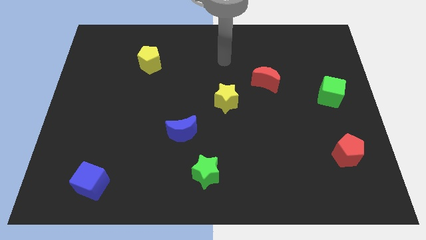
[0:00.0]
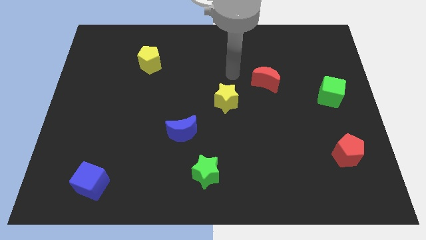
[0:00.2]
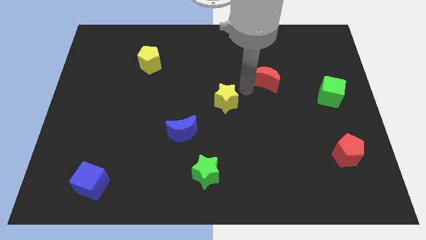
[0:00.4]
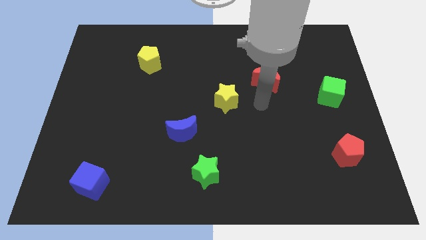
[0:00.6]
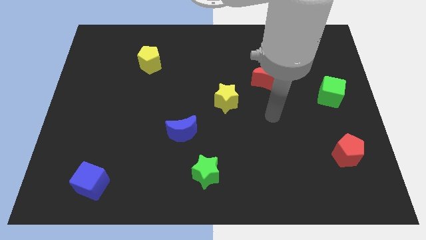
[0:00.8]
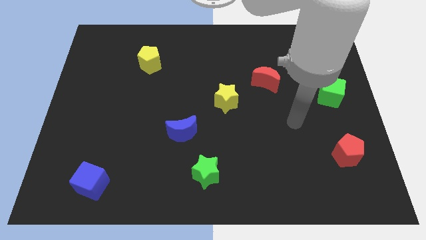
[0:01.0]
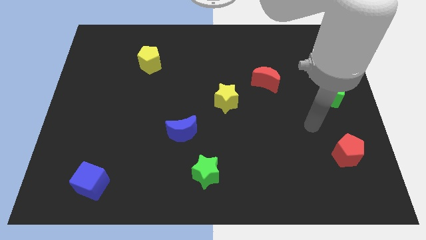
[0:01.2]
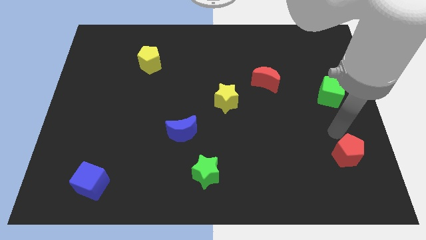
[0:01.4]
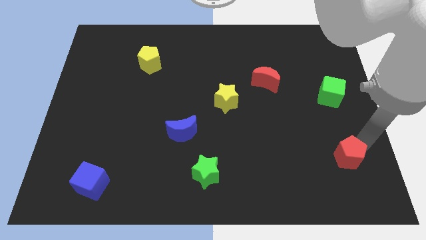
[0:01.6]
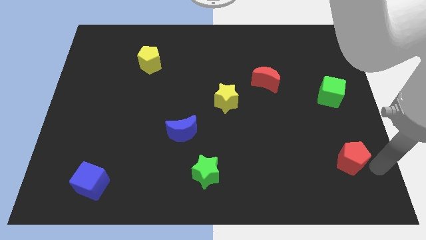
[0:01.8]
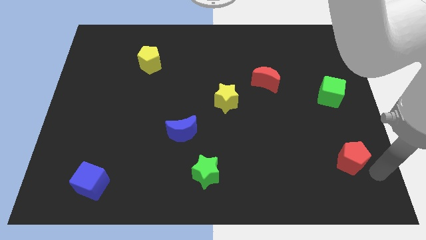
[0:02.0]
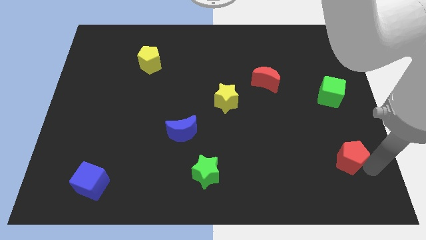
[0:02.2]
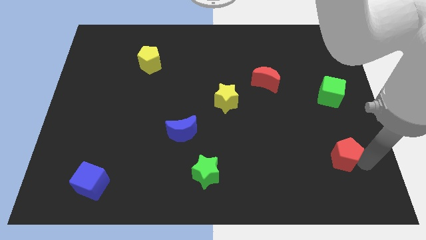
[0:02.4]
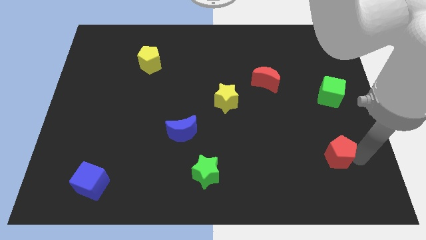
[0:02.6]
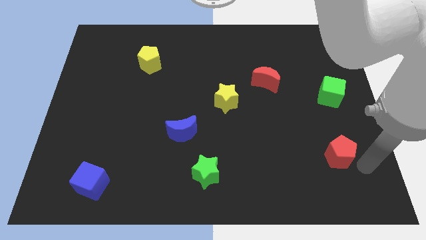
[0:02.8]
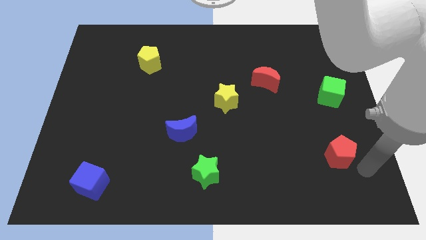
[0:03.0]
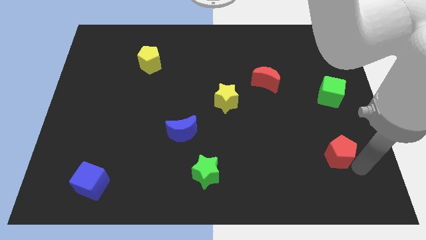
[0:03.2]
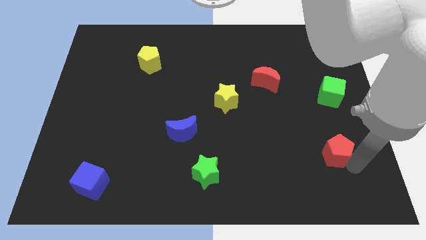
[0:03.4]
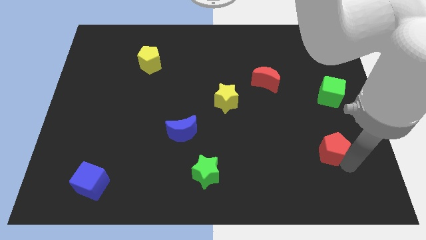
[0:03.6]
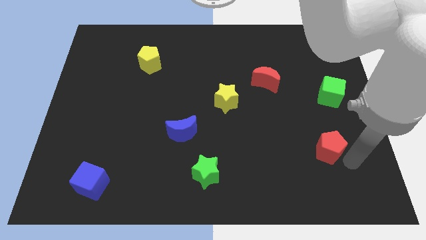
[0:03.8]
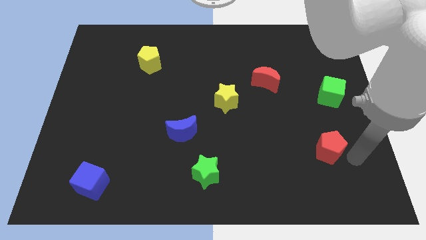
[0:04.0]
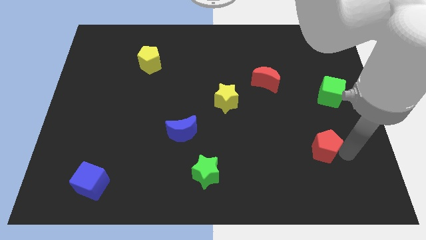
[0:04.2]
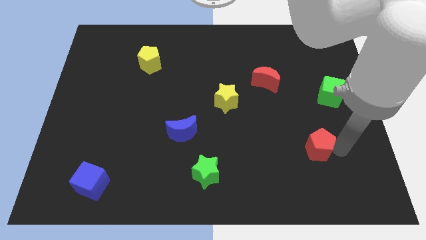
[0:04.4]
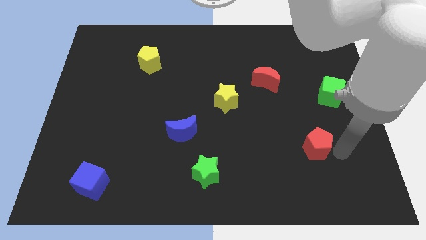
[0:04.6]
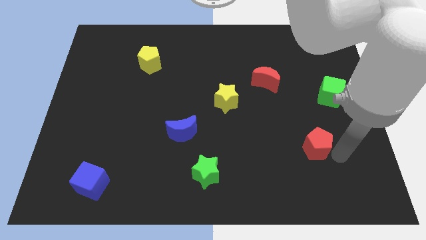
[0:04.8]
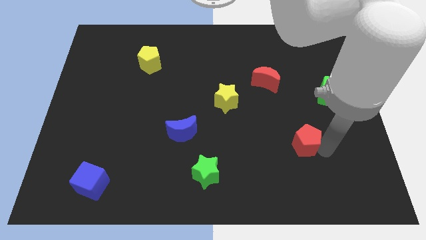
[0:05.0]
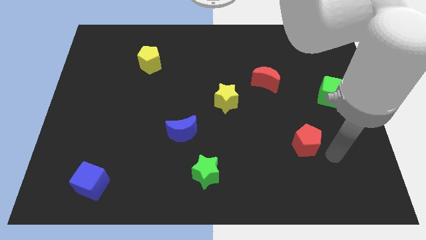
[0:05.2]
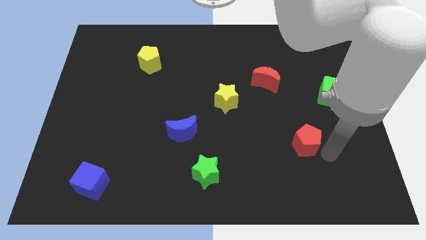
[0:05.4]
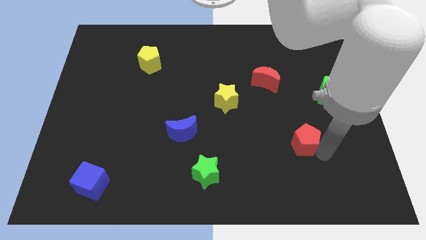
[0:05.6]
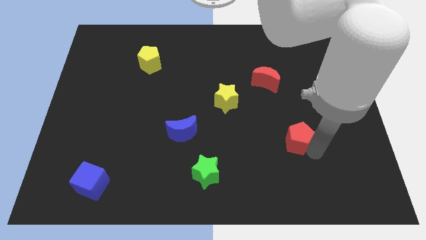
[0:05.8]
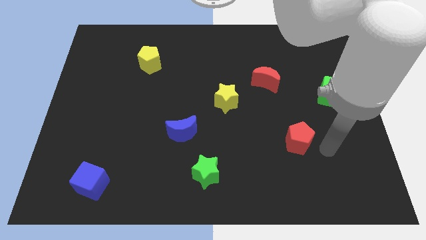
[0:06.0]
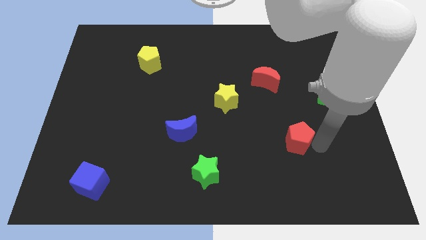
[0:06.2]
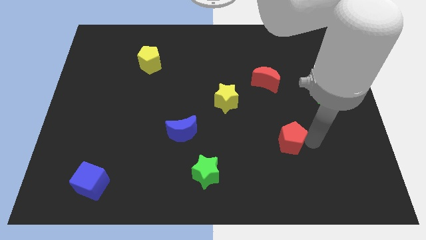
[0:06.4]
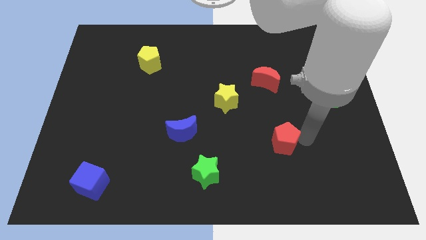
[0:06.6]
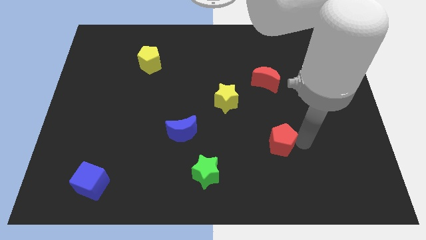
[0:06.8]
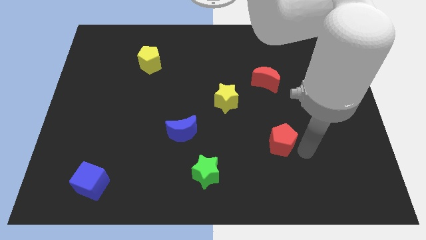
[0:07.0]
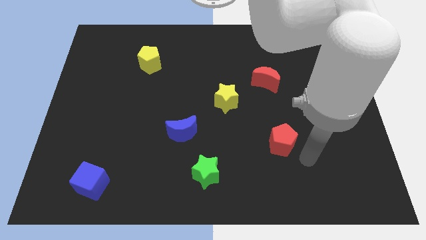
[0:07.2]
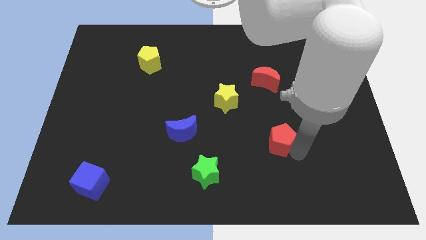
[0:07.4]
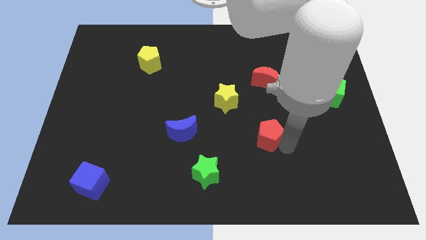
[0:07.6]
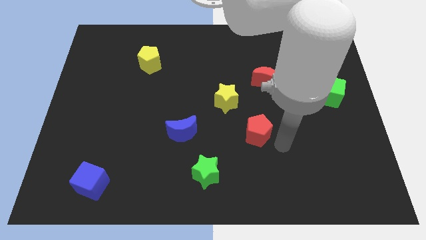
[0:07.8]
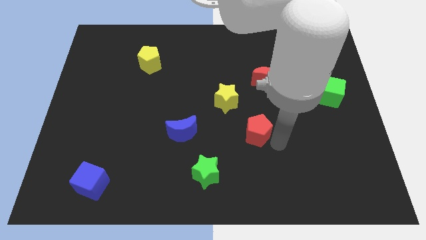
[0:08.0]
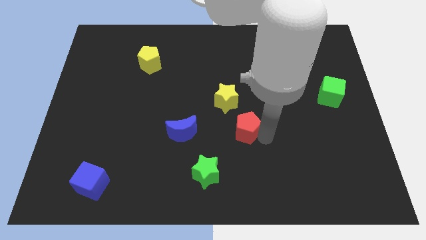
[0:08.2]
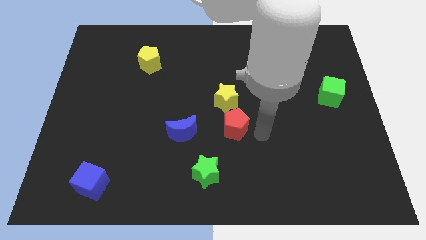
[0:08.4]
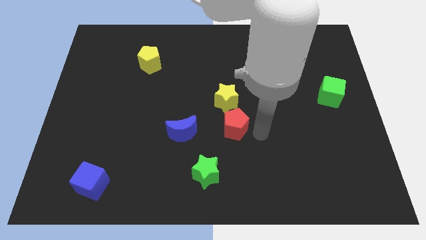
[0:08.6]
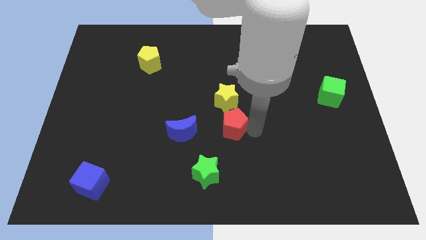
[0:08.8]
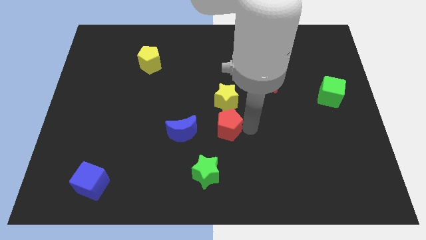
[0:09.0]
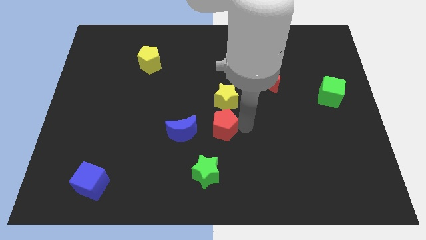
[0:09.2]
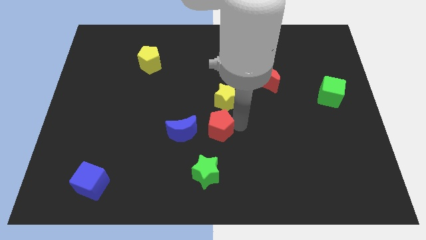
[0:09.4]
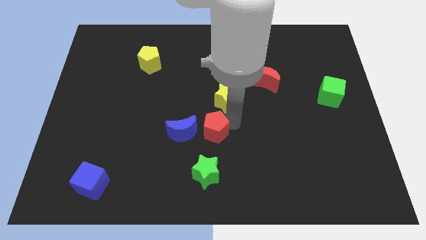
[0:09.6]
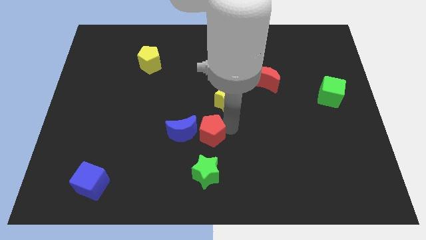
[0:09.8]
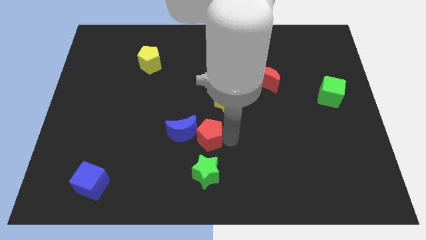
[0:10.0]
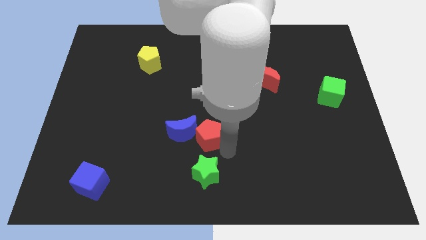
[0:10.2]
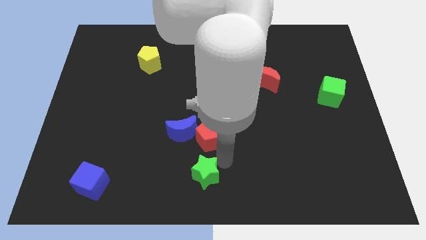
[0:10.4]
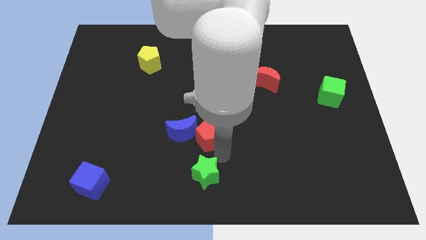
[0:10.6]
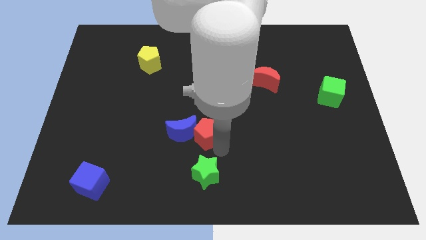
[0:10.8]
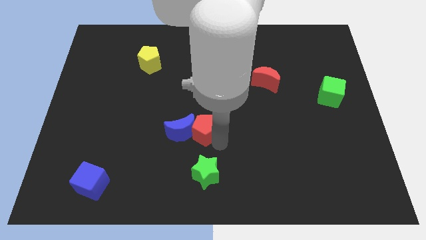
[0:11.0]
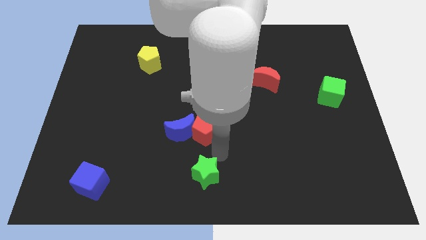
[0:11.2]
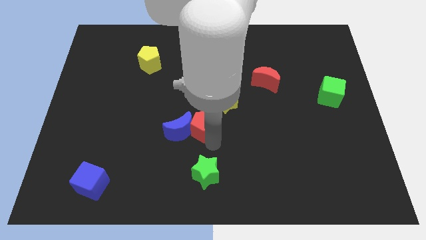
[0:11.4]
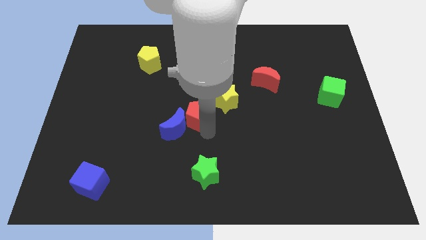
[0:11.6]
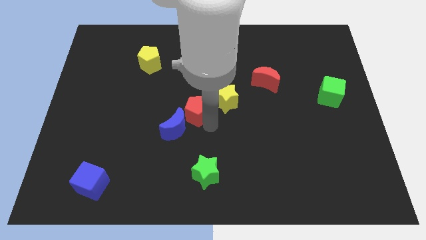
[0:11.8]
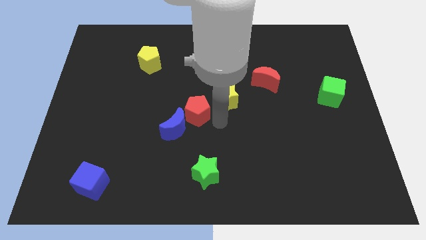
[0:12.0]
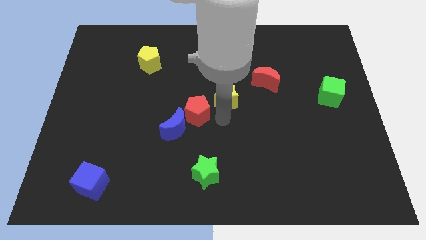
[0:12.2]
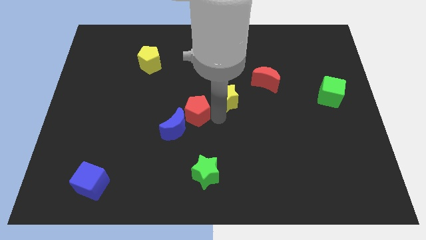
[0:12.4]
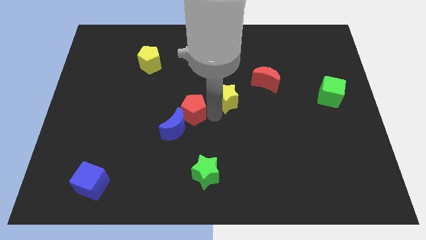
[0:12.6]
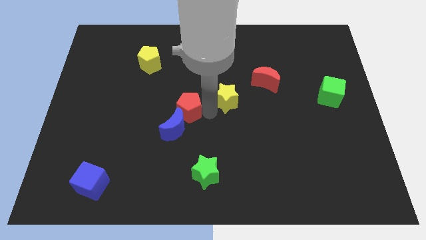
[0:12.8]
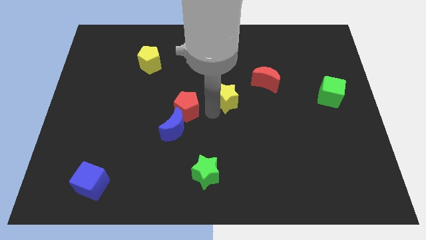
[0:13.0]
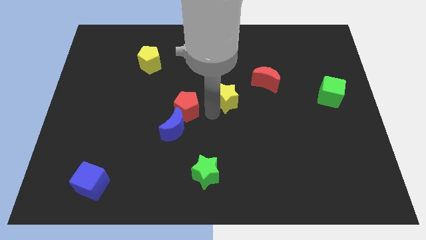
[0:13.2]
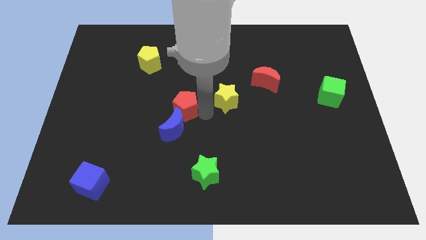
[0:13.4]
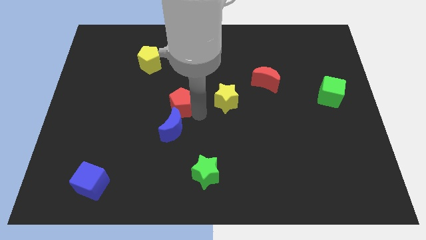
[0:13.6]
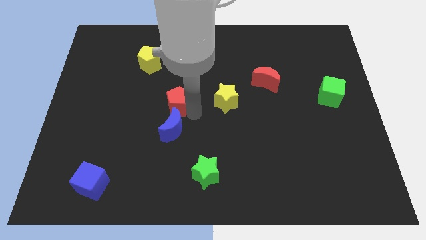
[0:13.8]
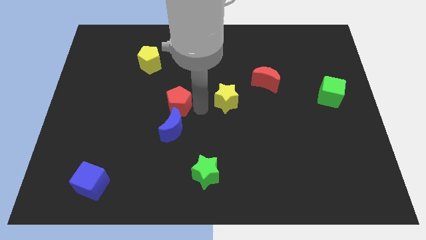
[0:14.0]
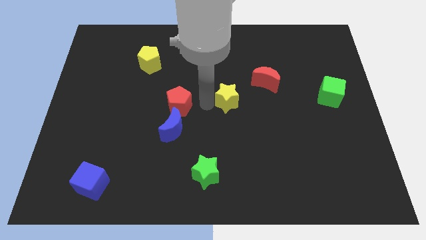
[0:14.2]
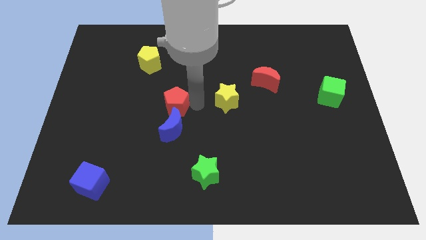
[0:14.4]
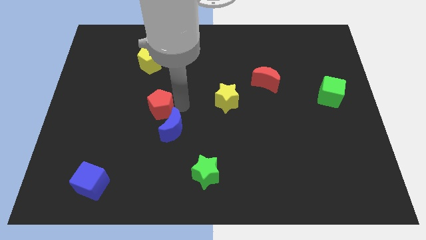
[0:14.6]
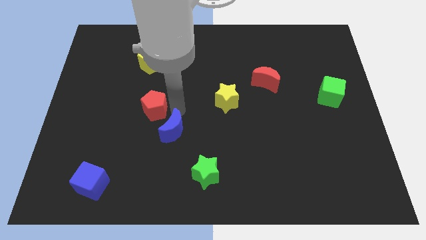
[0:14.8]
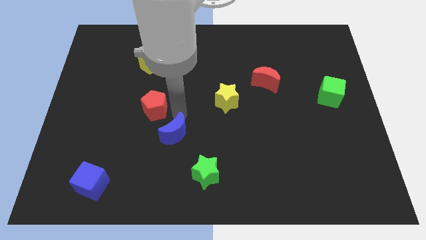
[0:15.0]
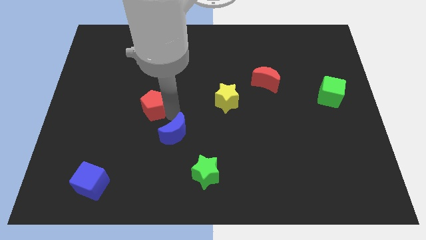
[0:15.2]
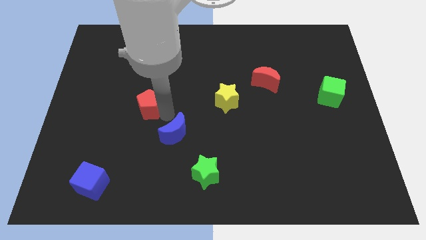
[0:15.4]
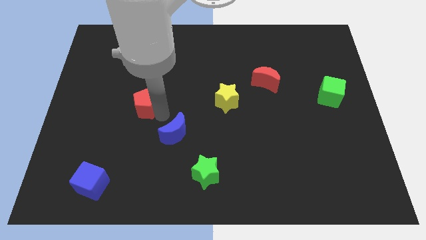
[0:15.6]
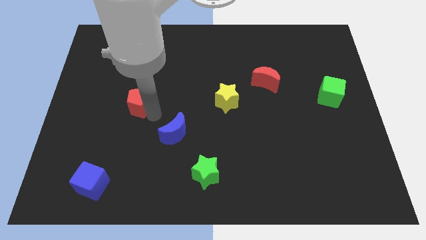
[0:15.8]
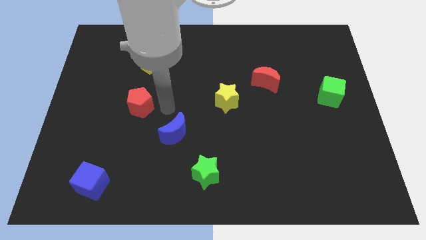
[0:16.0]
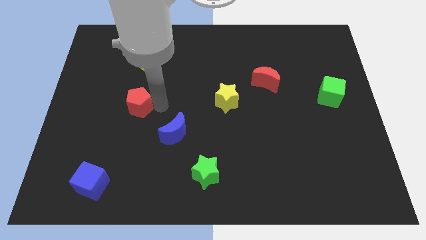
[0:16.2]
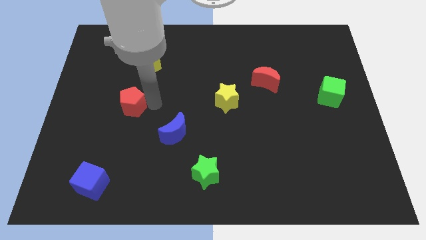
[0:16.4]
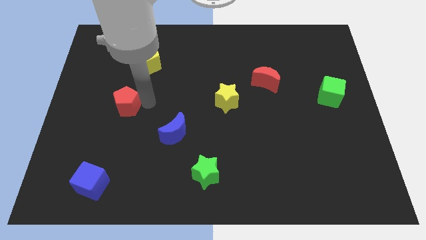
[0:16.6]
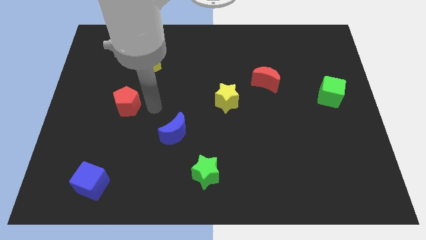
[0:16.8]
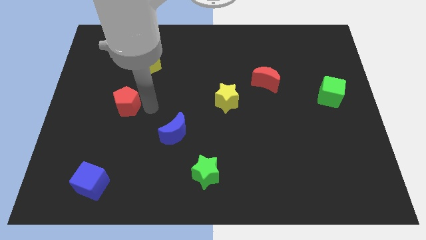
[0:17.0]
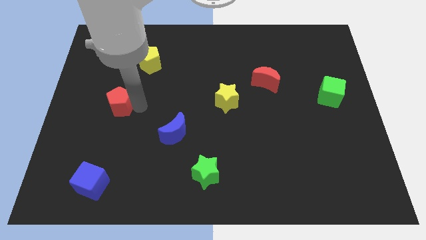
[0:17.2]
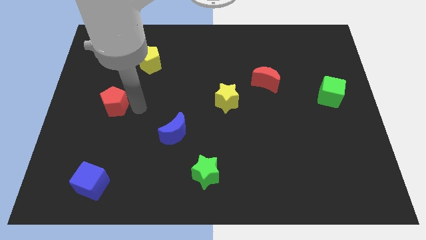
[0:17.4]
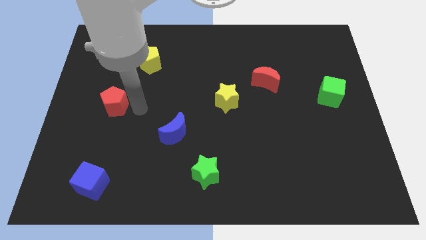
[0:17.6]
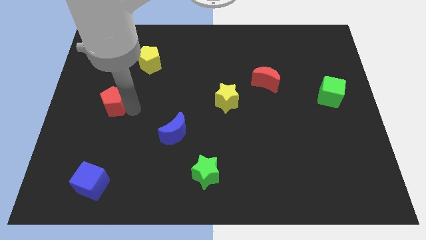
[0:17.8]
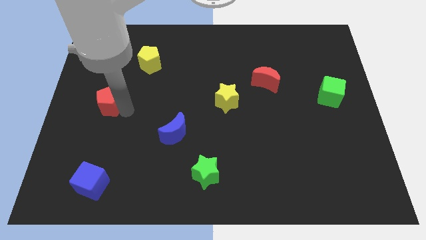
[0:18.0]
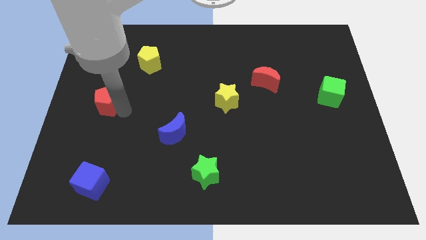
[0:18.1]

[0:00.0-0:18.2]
put the red pentagon to the left side
